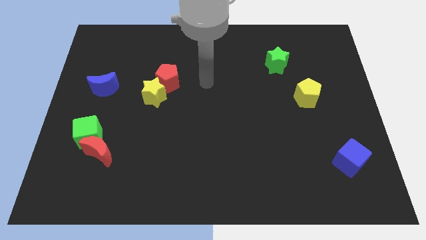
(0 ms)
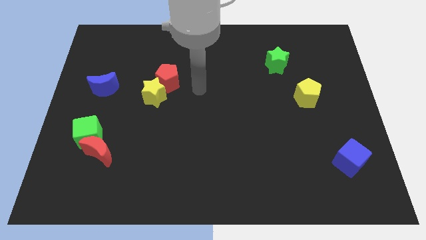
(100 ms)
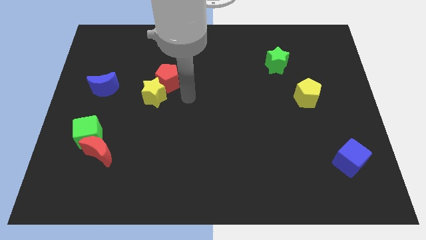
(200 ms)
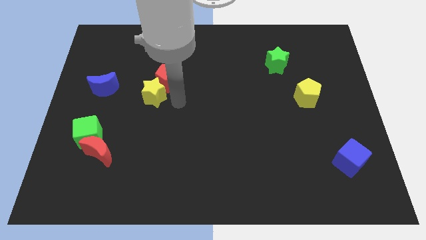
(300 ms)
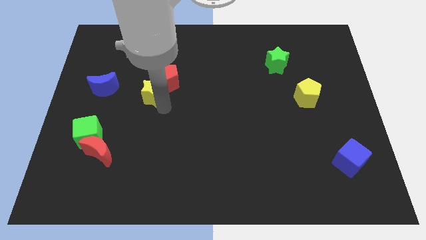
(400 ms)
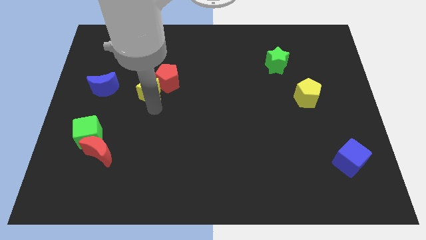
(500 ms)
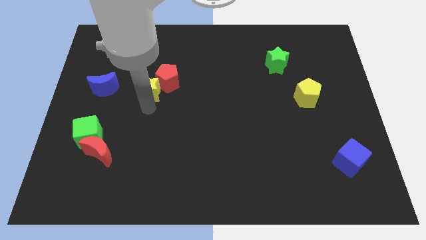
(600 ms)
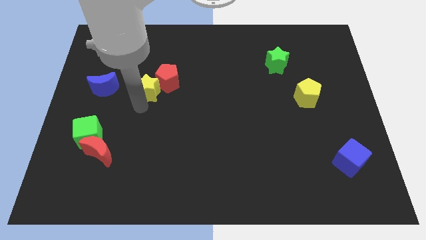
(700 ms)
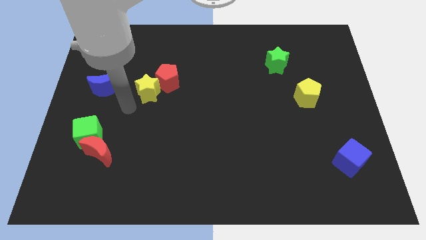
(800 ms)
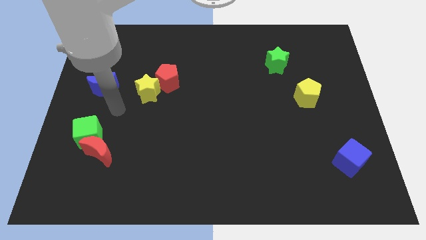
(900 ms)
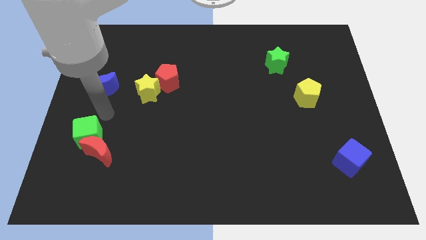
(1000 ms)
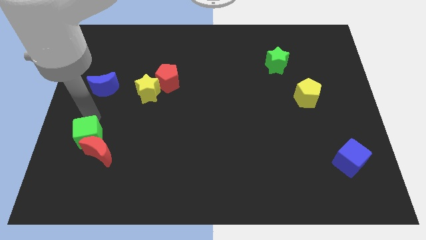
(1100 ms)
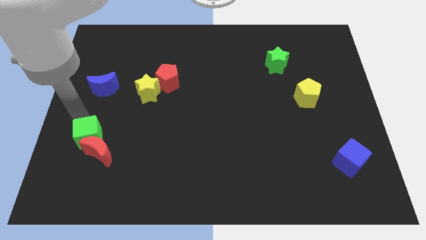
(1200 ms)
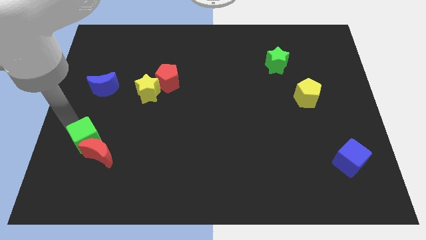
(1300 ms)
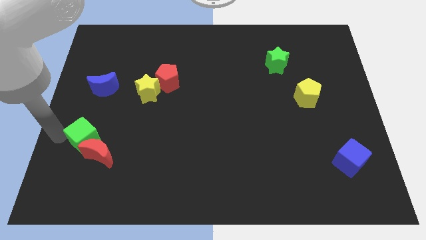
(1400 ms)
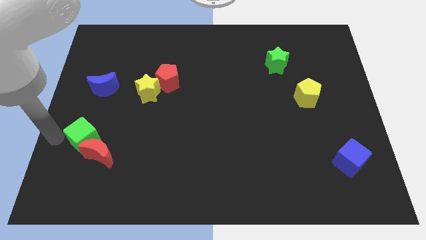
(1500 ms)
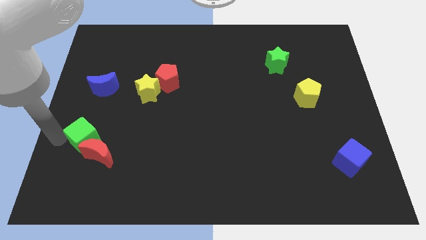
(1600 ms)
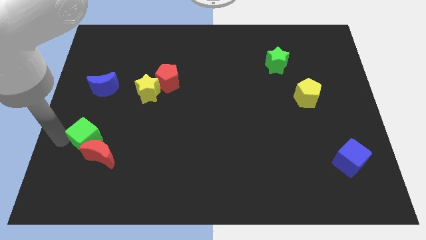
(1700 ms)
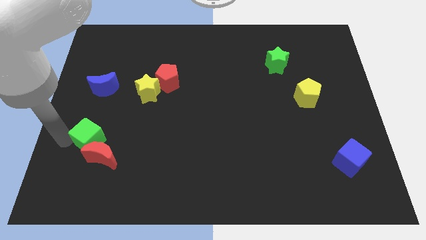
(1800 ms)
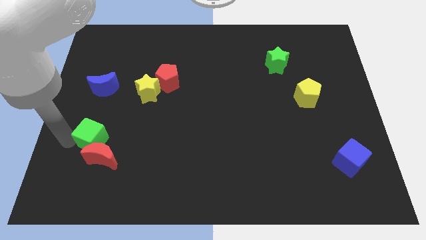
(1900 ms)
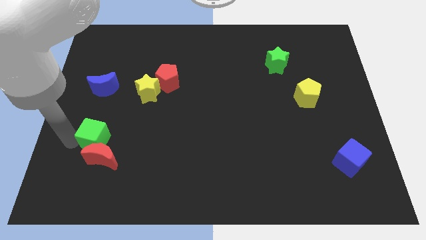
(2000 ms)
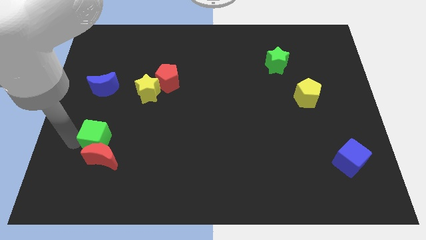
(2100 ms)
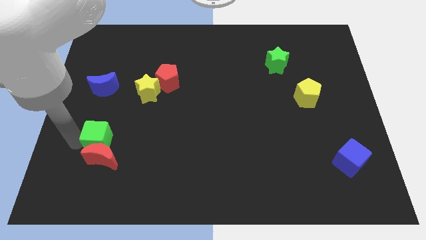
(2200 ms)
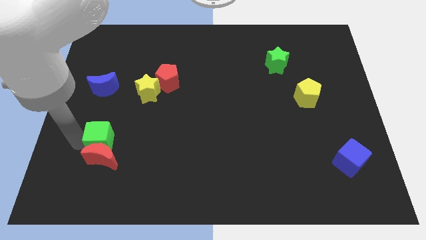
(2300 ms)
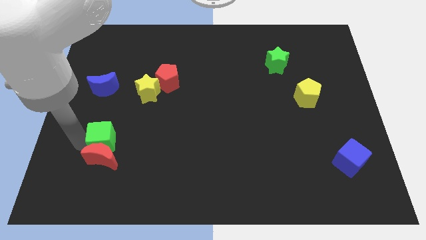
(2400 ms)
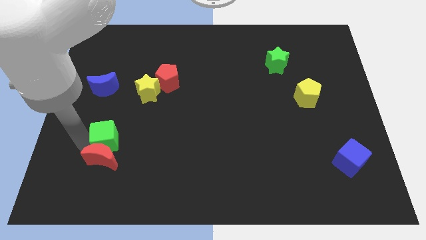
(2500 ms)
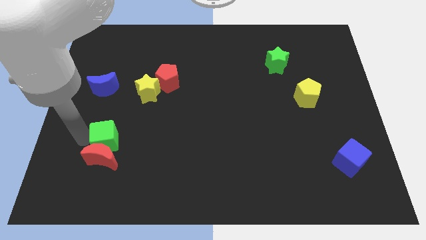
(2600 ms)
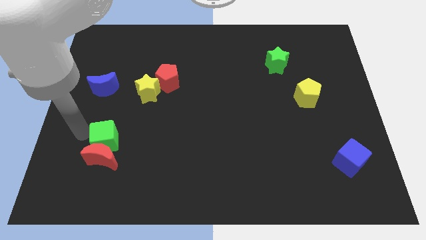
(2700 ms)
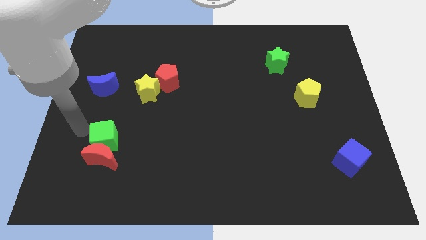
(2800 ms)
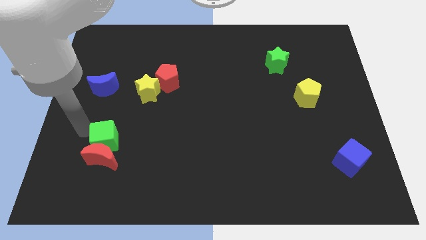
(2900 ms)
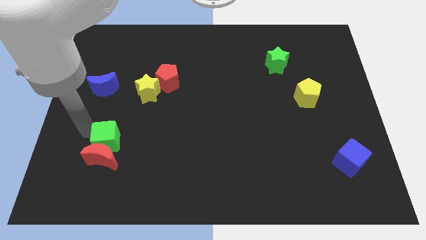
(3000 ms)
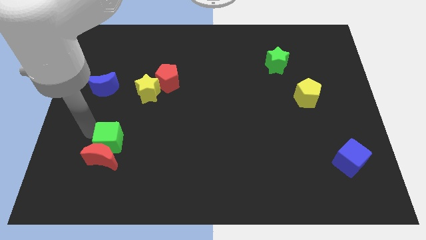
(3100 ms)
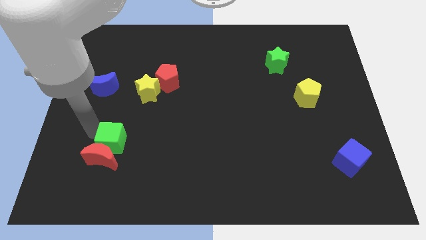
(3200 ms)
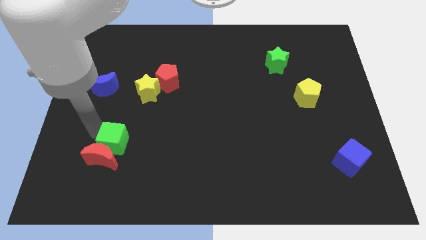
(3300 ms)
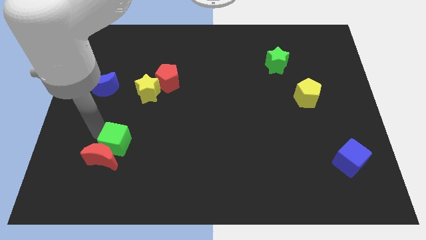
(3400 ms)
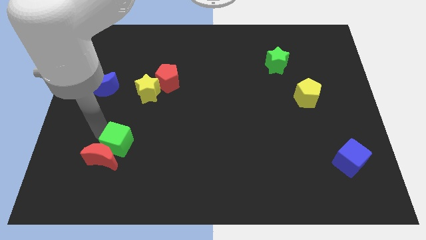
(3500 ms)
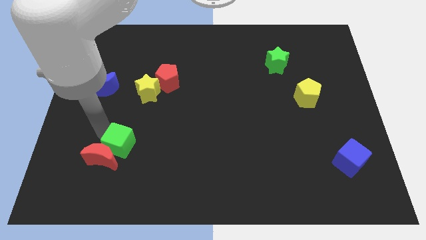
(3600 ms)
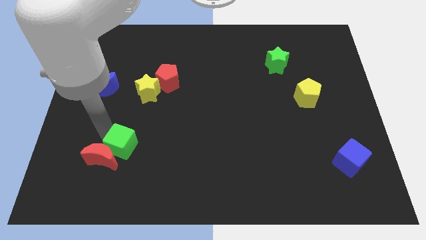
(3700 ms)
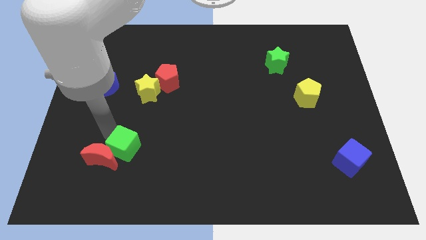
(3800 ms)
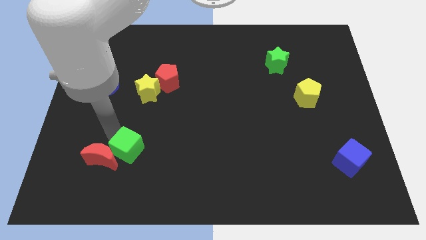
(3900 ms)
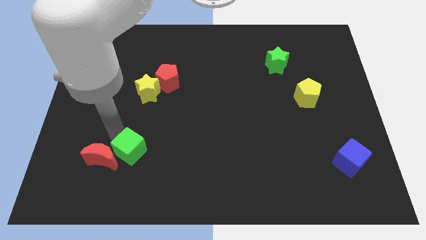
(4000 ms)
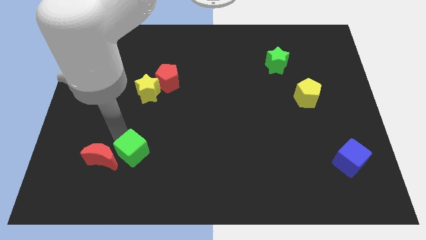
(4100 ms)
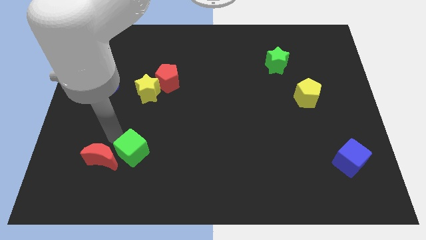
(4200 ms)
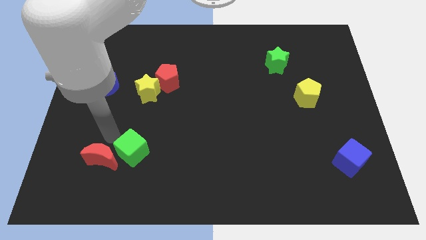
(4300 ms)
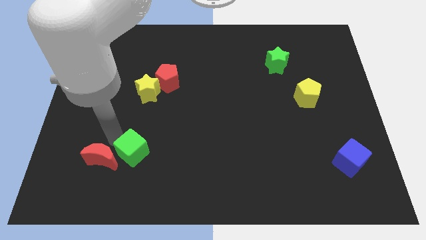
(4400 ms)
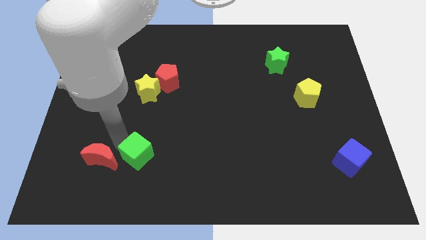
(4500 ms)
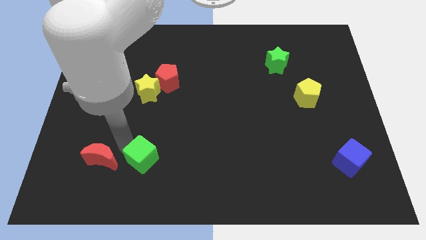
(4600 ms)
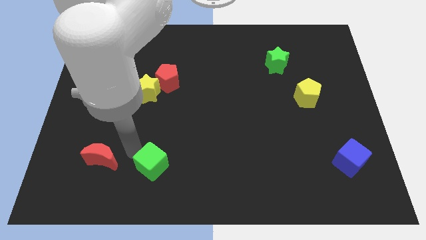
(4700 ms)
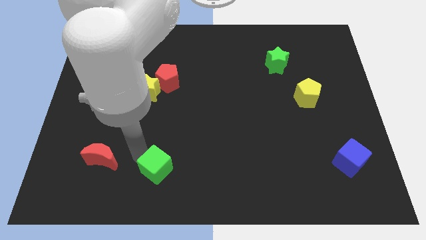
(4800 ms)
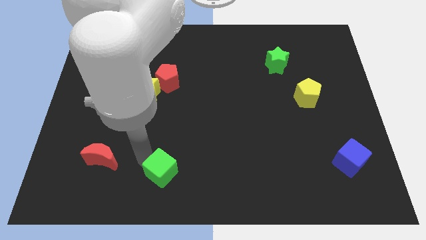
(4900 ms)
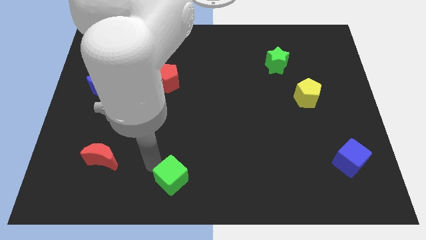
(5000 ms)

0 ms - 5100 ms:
move the green cube to the bottom side

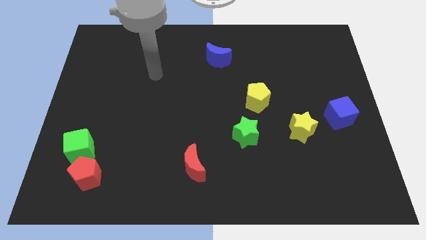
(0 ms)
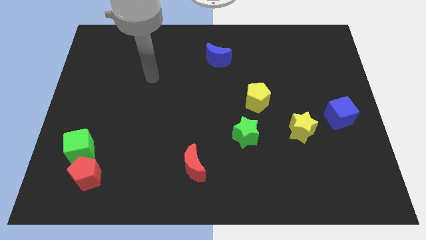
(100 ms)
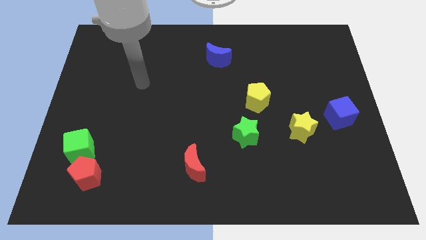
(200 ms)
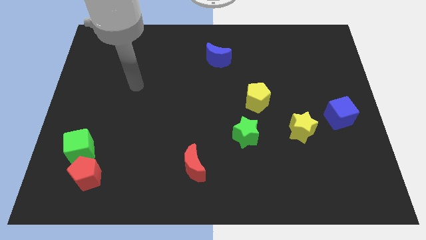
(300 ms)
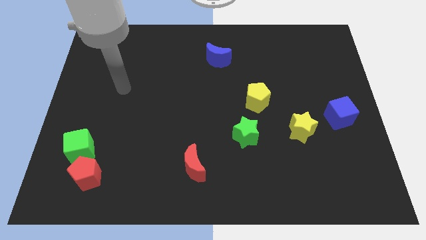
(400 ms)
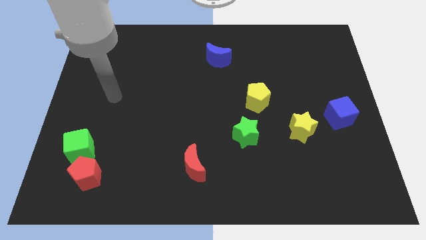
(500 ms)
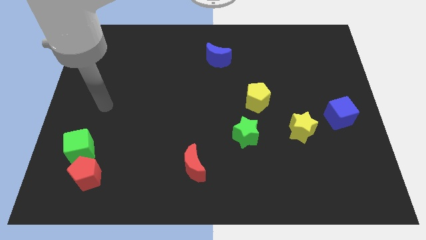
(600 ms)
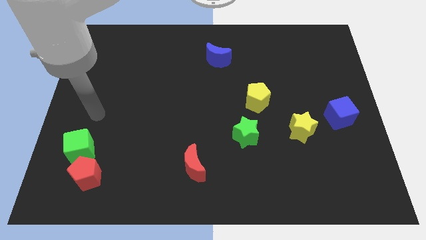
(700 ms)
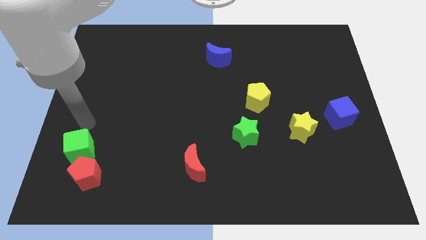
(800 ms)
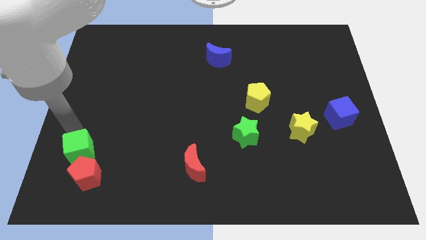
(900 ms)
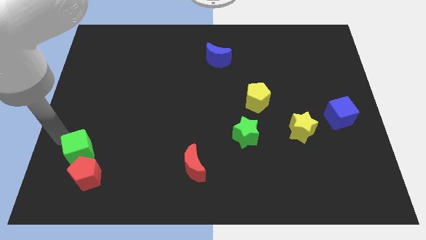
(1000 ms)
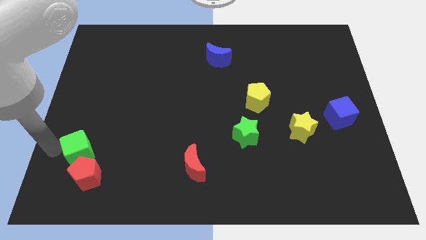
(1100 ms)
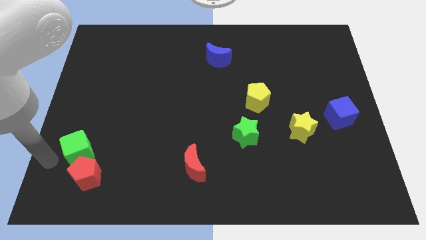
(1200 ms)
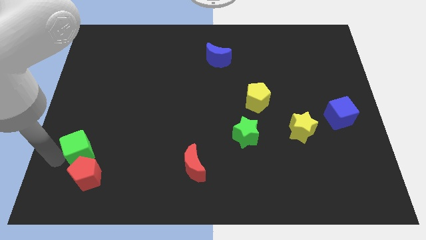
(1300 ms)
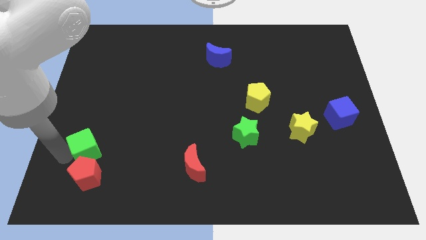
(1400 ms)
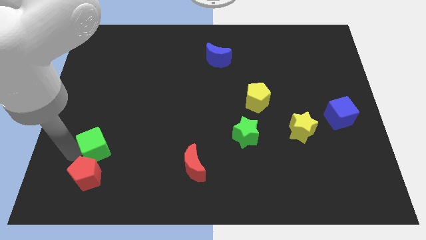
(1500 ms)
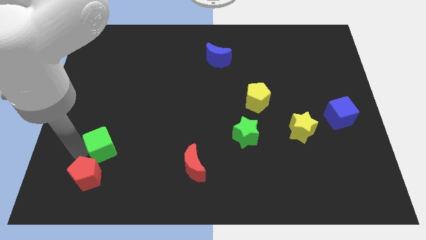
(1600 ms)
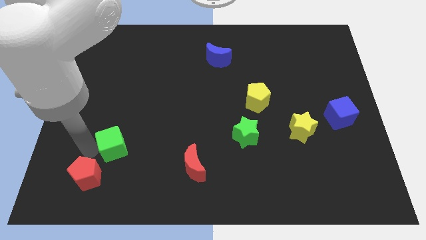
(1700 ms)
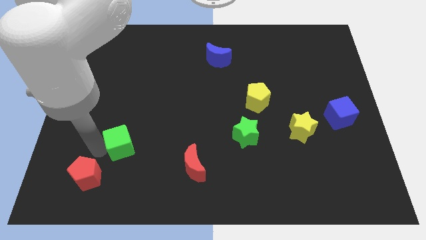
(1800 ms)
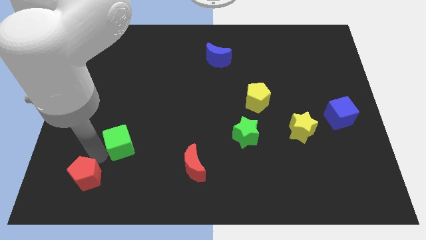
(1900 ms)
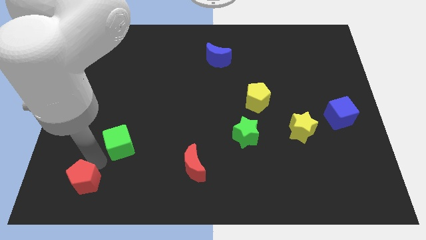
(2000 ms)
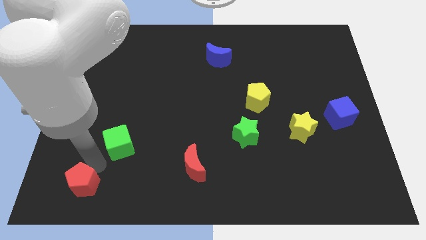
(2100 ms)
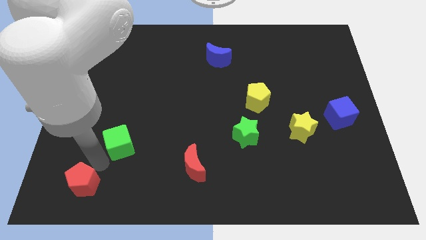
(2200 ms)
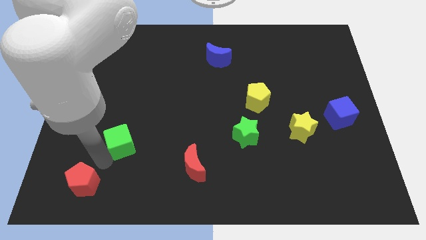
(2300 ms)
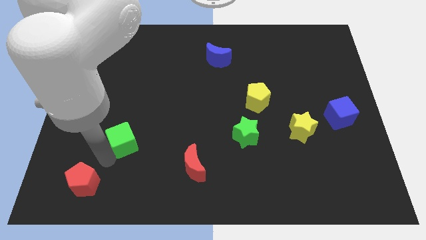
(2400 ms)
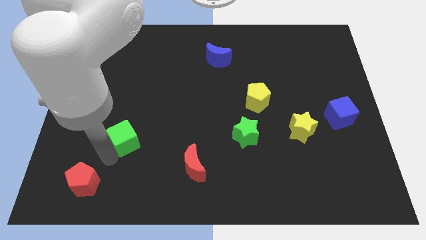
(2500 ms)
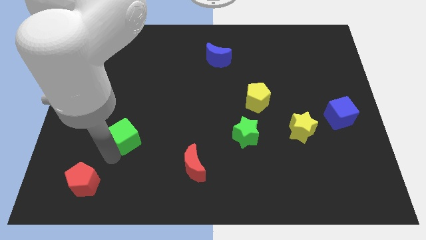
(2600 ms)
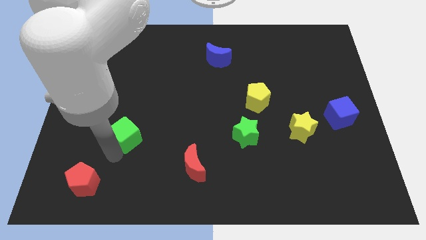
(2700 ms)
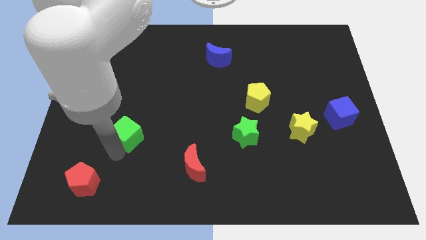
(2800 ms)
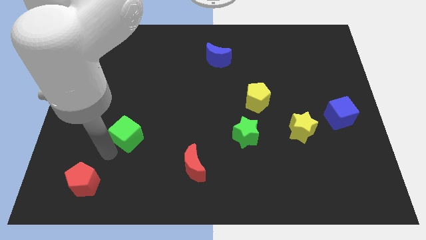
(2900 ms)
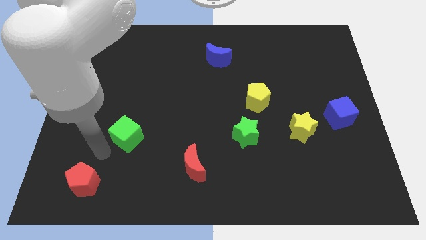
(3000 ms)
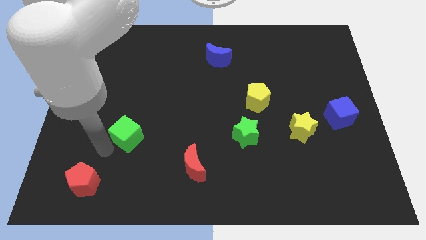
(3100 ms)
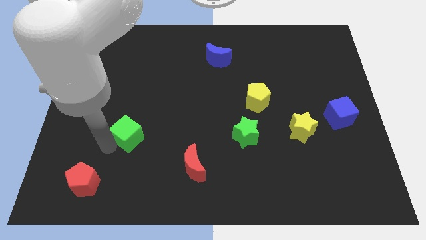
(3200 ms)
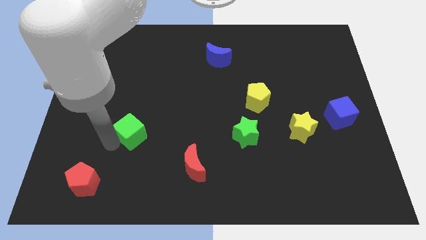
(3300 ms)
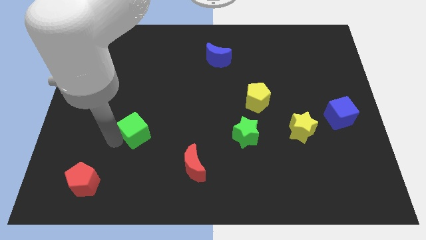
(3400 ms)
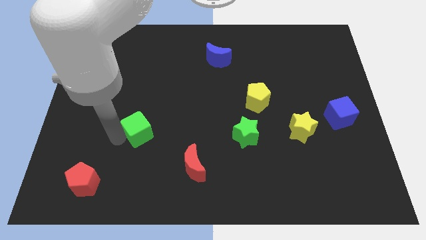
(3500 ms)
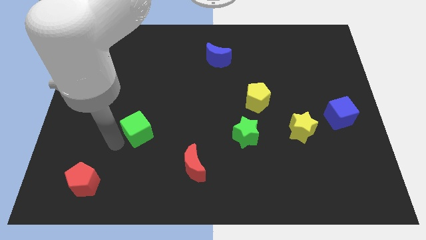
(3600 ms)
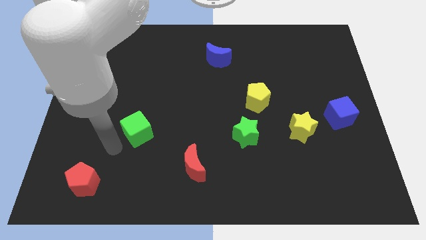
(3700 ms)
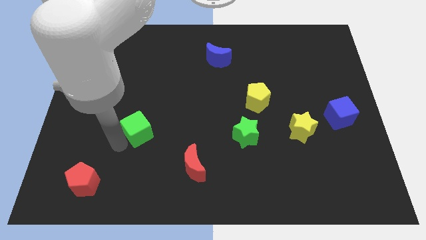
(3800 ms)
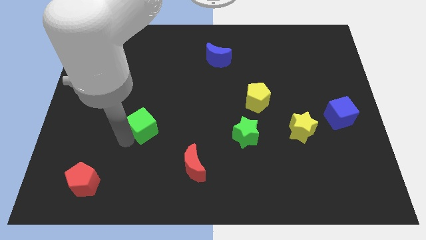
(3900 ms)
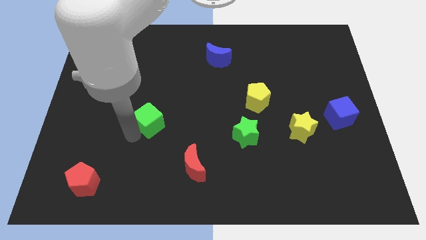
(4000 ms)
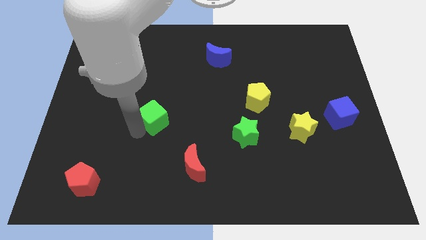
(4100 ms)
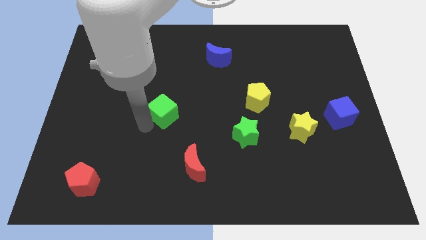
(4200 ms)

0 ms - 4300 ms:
push the green cube to the middle of the board
